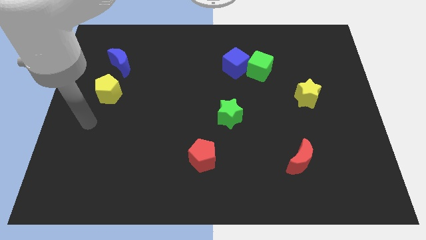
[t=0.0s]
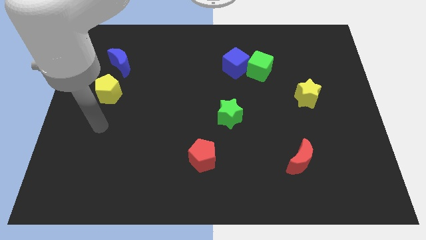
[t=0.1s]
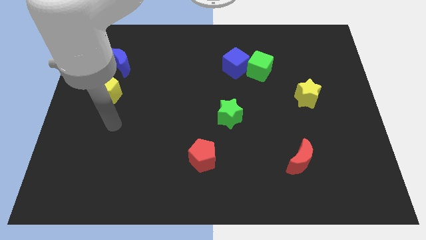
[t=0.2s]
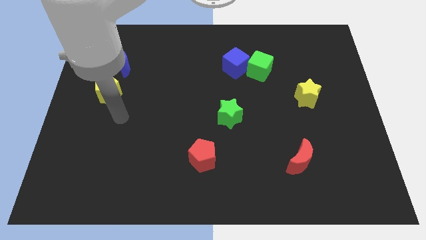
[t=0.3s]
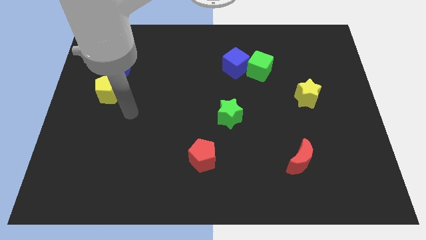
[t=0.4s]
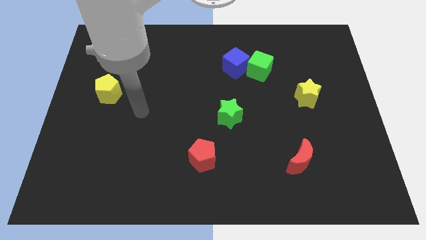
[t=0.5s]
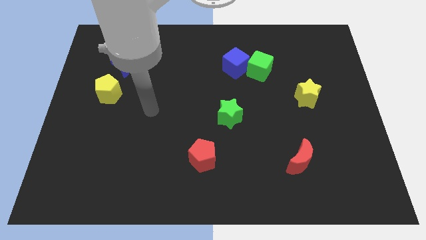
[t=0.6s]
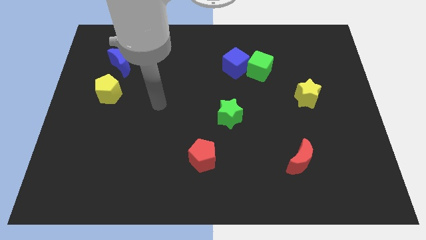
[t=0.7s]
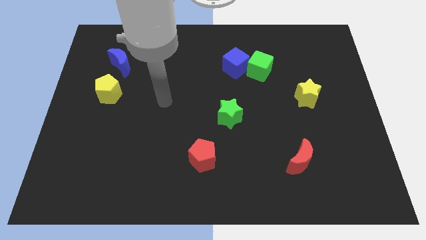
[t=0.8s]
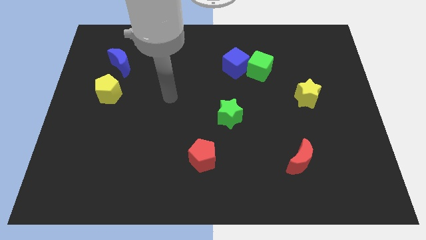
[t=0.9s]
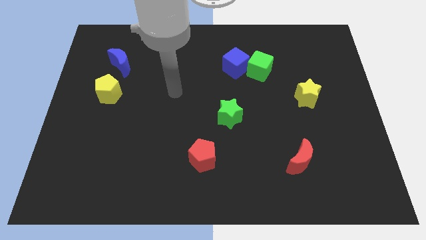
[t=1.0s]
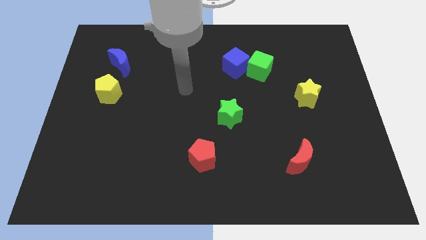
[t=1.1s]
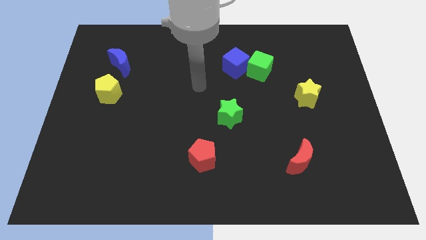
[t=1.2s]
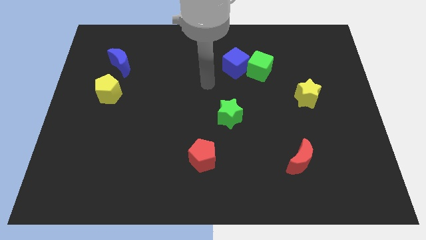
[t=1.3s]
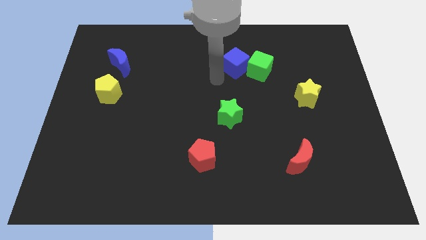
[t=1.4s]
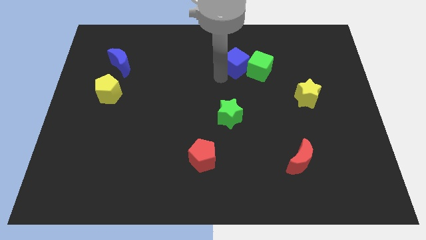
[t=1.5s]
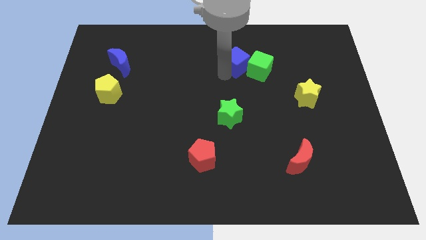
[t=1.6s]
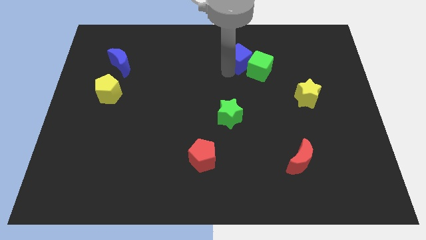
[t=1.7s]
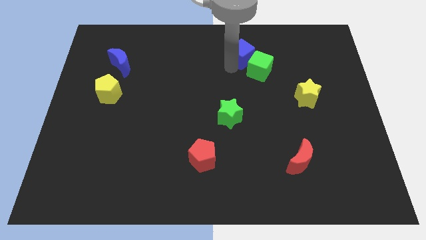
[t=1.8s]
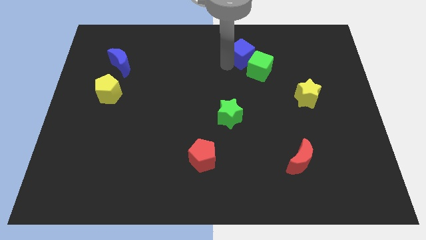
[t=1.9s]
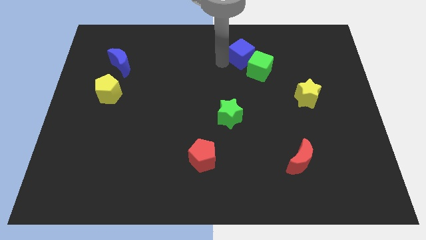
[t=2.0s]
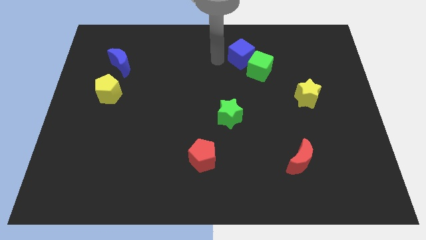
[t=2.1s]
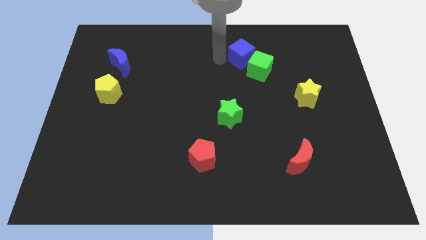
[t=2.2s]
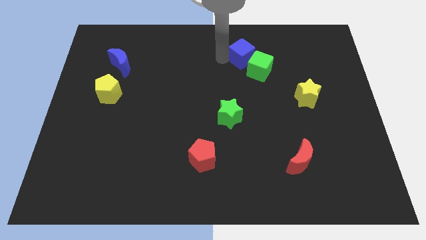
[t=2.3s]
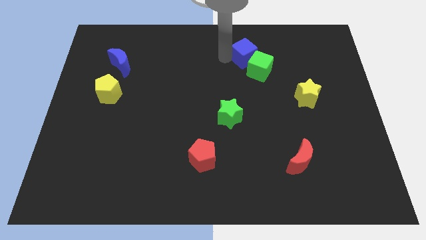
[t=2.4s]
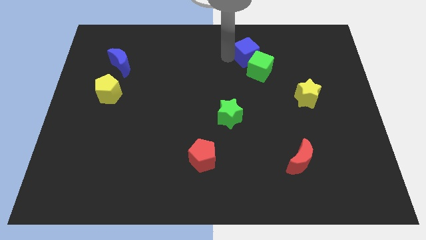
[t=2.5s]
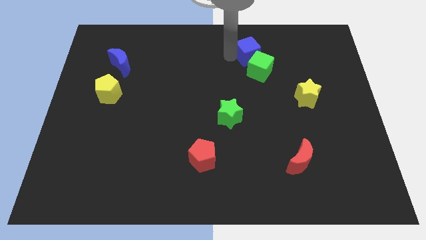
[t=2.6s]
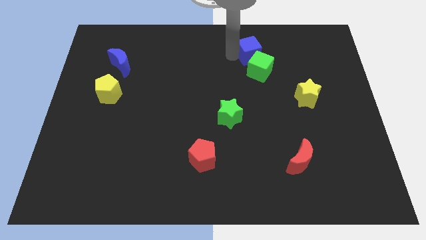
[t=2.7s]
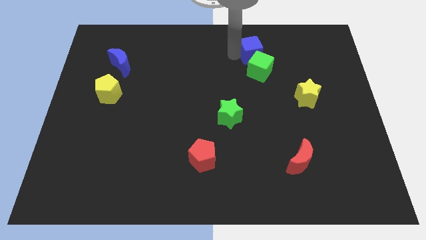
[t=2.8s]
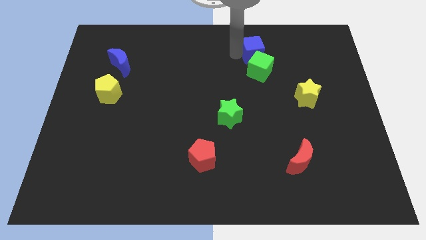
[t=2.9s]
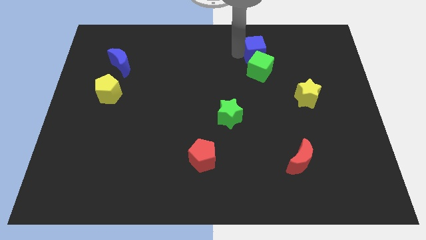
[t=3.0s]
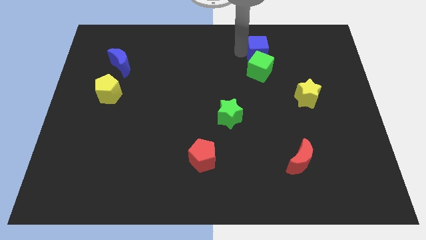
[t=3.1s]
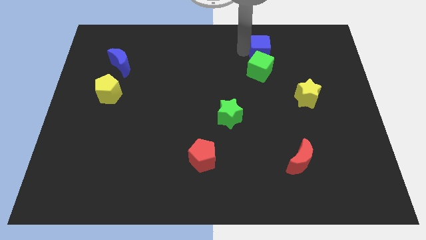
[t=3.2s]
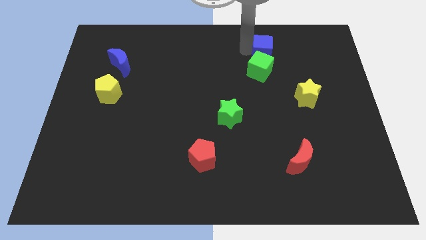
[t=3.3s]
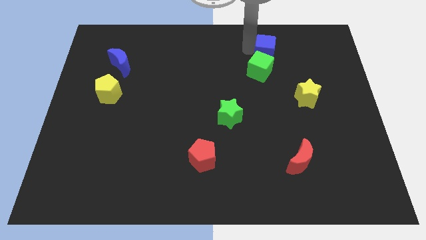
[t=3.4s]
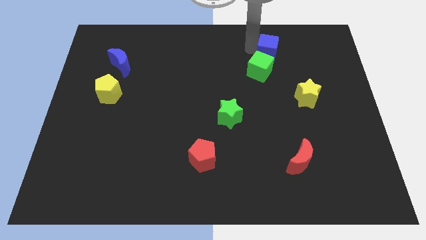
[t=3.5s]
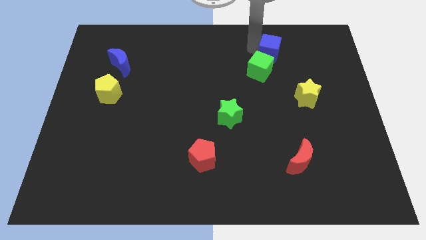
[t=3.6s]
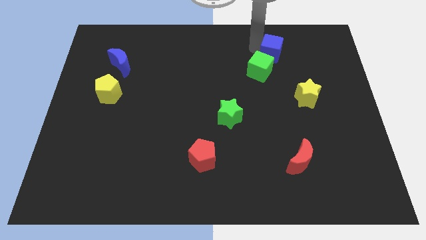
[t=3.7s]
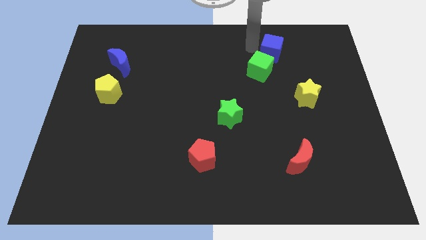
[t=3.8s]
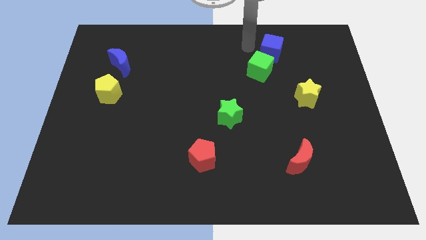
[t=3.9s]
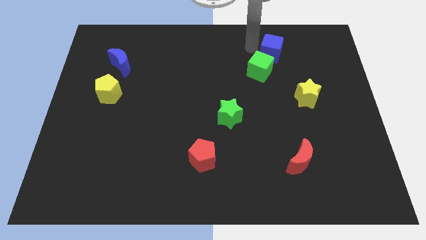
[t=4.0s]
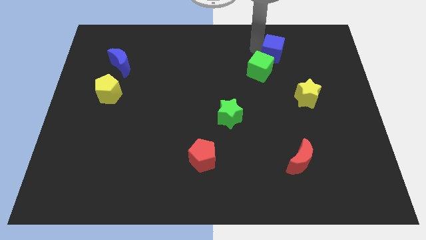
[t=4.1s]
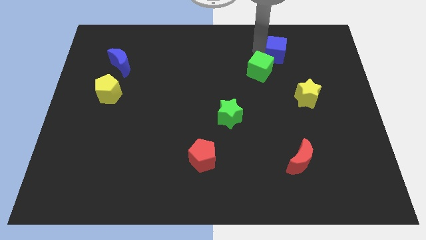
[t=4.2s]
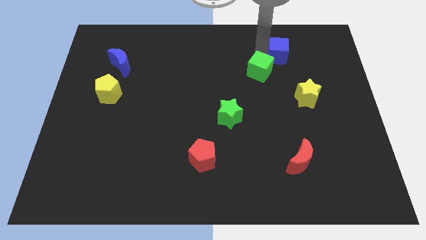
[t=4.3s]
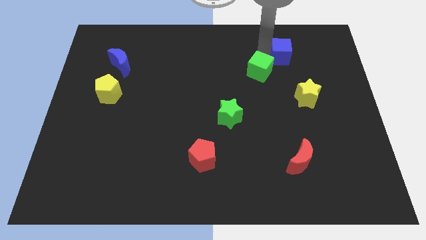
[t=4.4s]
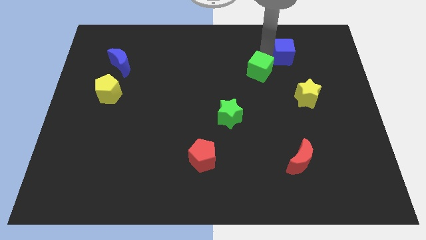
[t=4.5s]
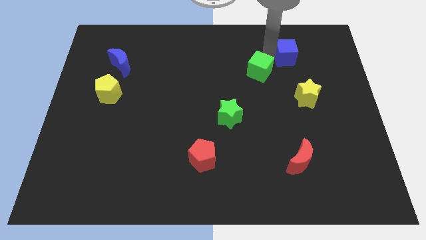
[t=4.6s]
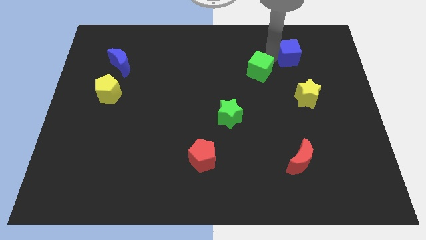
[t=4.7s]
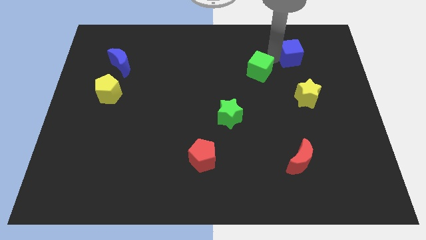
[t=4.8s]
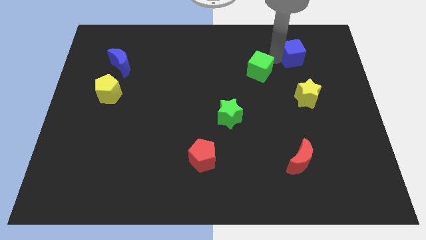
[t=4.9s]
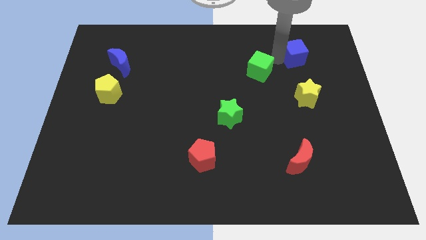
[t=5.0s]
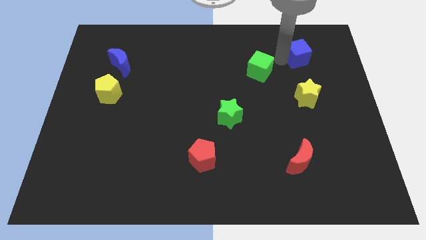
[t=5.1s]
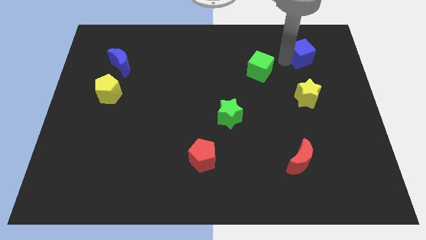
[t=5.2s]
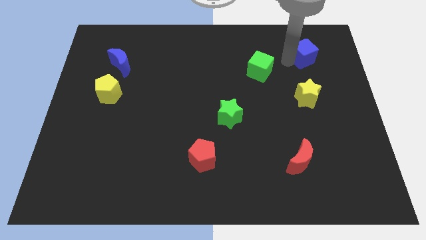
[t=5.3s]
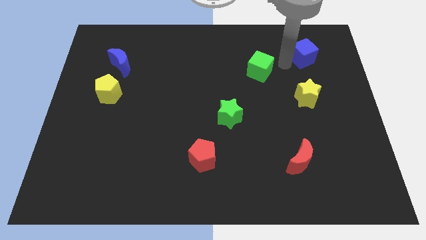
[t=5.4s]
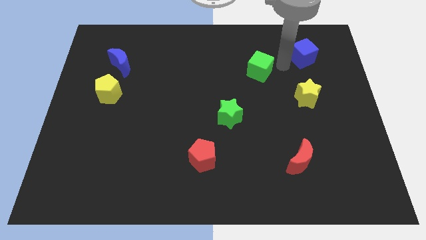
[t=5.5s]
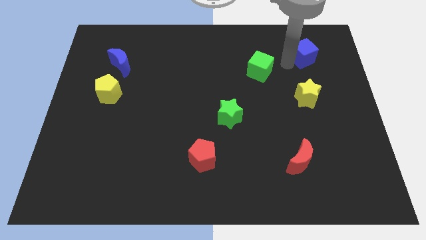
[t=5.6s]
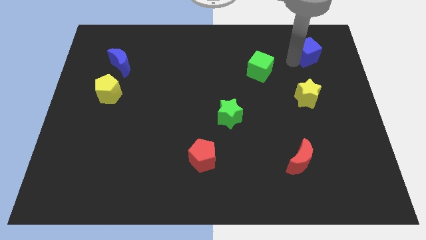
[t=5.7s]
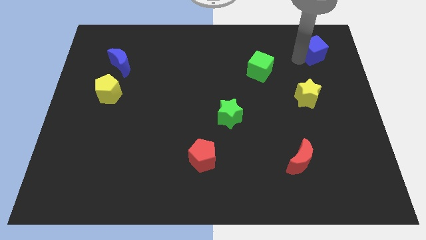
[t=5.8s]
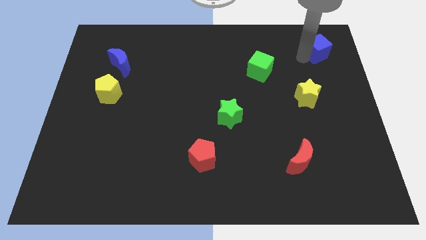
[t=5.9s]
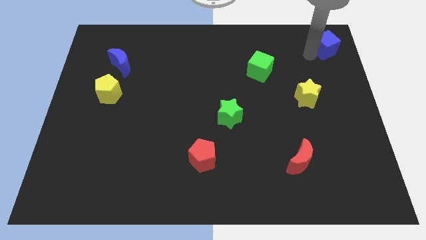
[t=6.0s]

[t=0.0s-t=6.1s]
slide the blue cube to the top right corner
